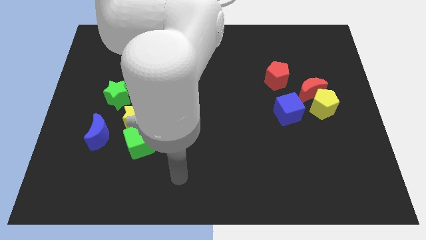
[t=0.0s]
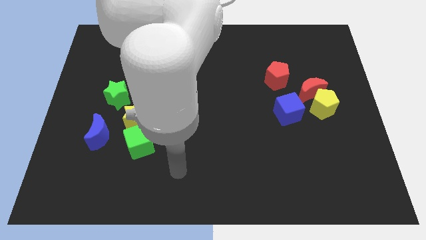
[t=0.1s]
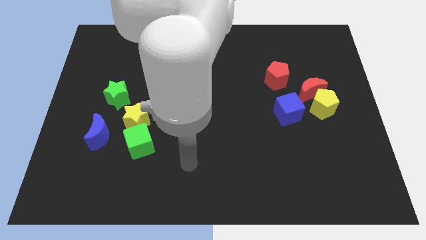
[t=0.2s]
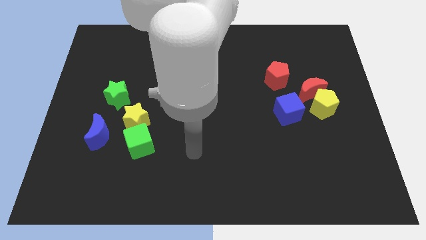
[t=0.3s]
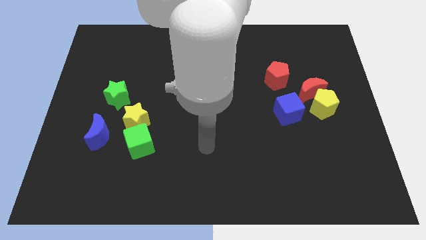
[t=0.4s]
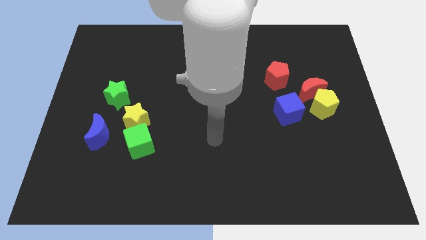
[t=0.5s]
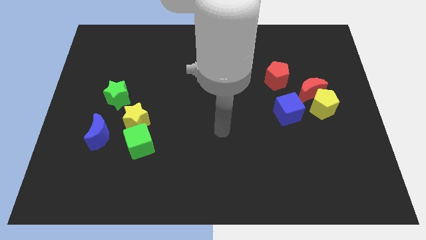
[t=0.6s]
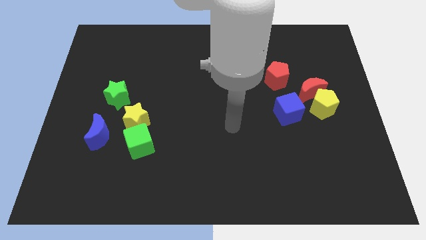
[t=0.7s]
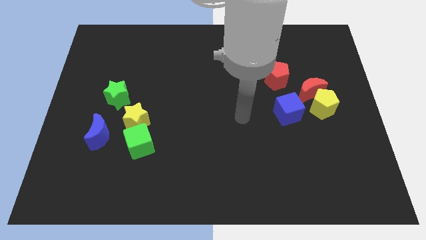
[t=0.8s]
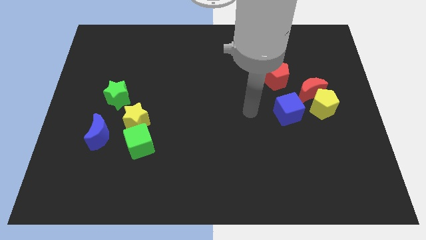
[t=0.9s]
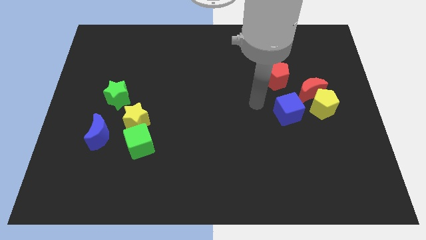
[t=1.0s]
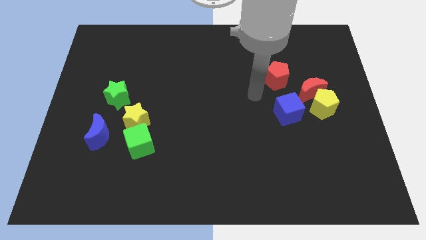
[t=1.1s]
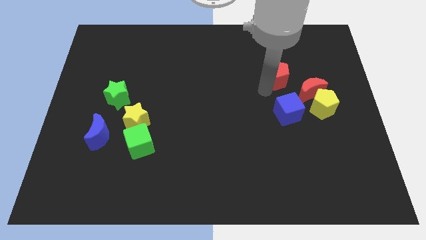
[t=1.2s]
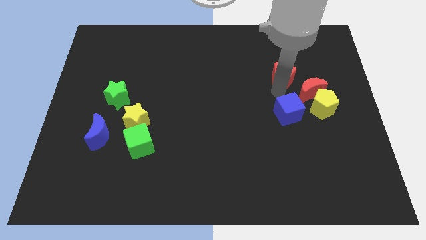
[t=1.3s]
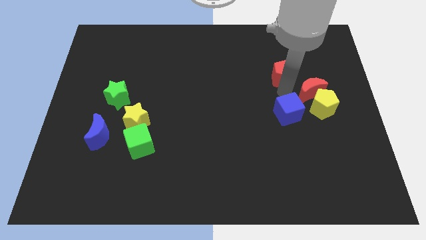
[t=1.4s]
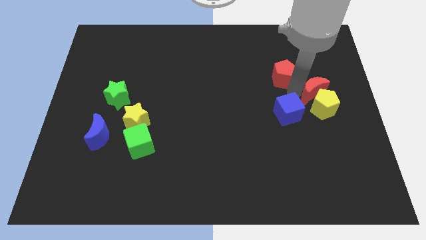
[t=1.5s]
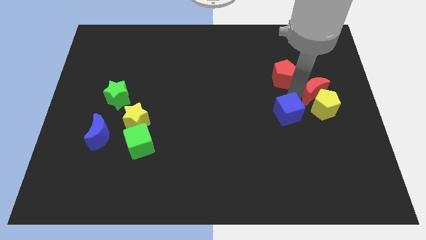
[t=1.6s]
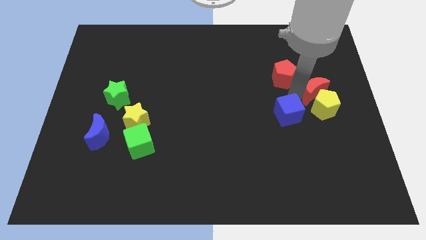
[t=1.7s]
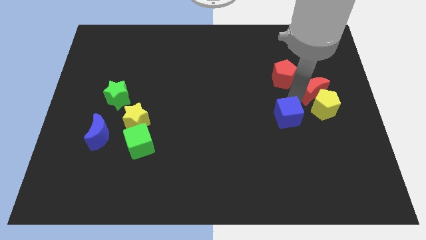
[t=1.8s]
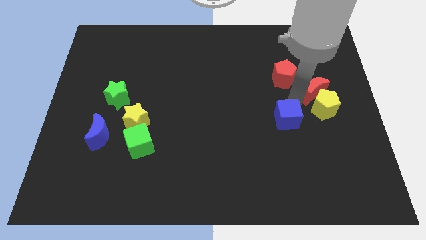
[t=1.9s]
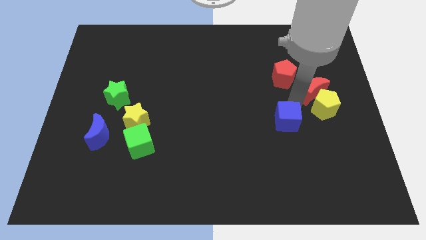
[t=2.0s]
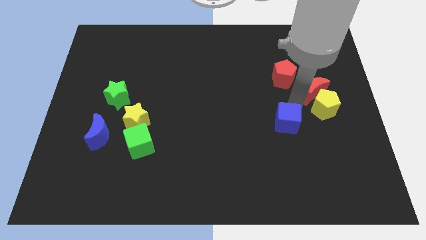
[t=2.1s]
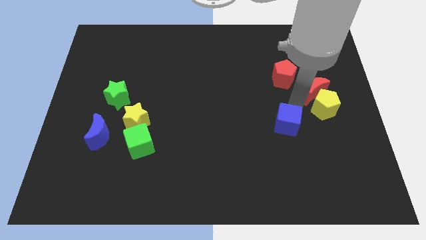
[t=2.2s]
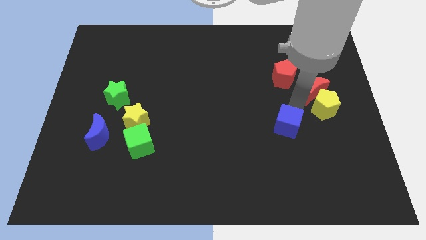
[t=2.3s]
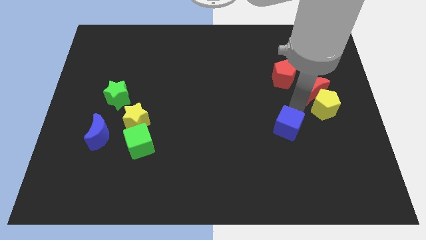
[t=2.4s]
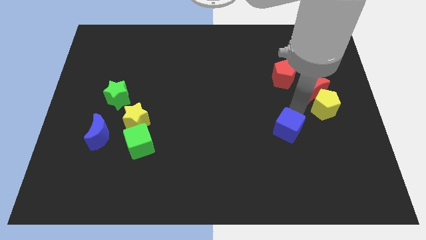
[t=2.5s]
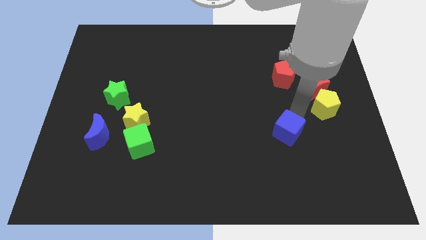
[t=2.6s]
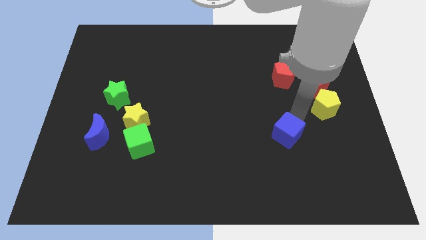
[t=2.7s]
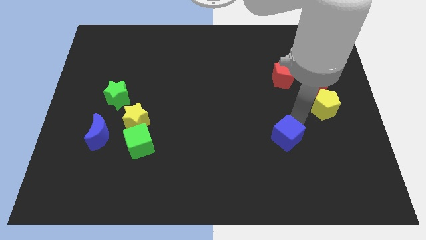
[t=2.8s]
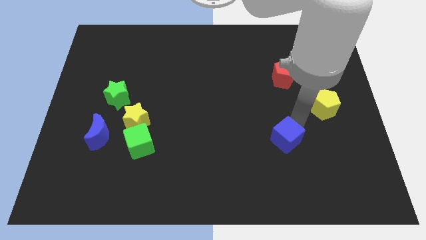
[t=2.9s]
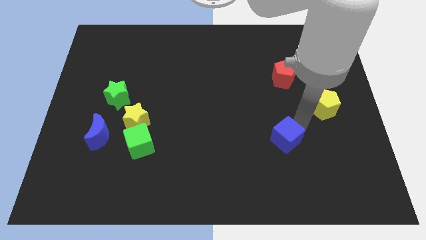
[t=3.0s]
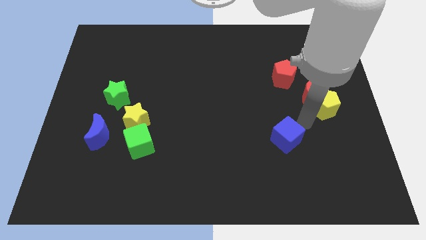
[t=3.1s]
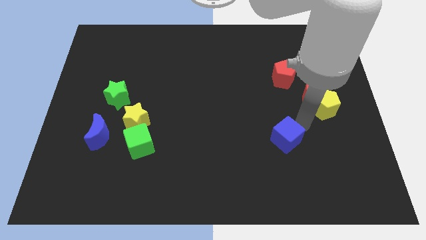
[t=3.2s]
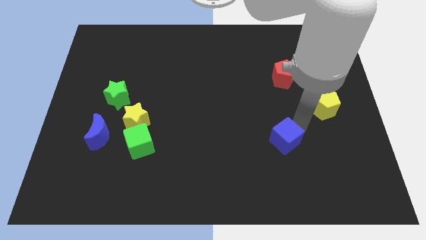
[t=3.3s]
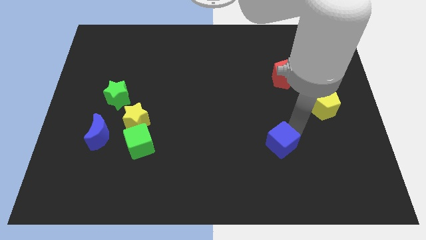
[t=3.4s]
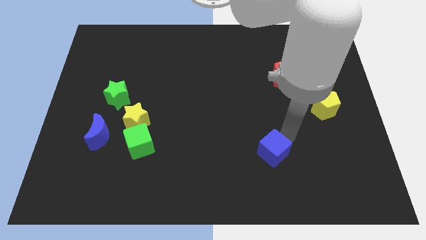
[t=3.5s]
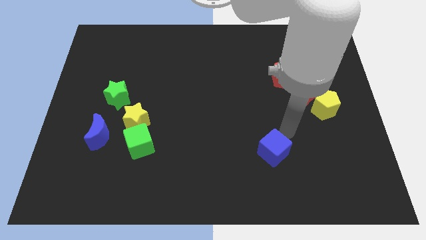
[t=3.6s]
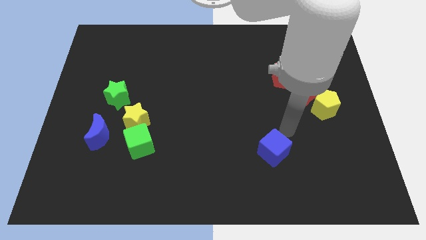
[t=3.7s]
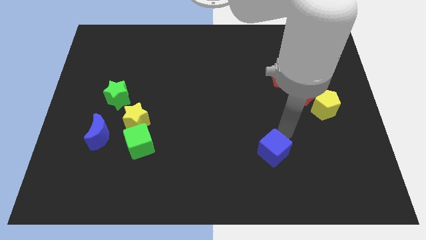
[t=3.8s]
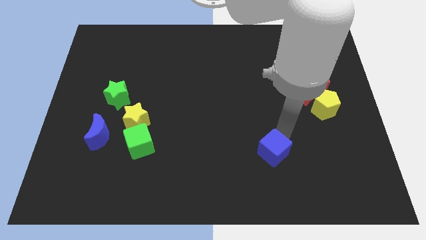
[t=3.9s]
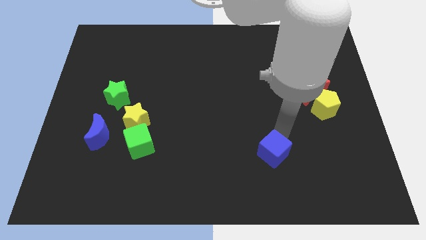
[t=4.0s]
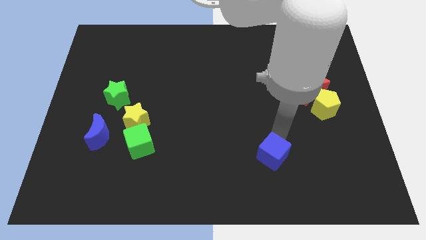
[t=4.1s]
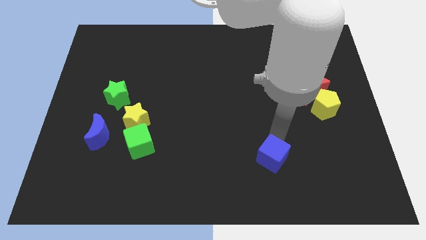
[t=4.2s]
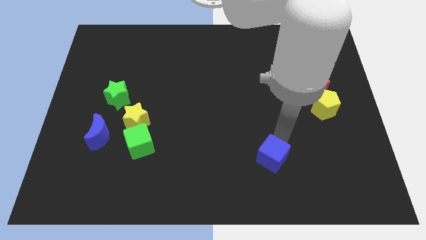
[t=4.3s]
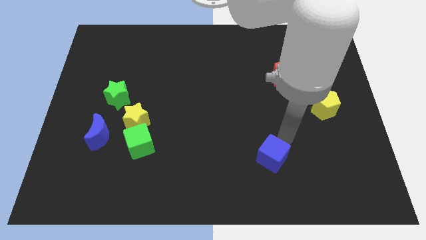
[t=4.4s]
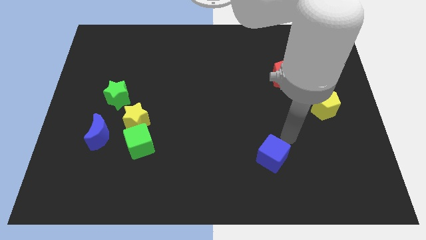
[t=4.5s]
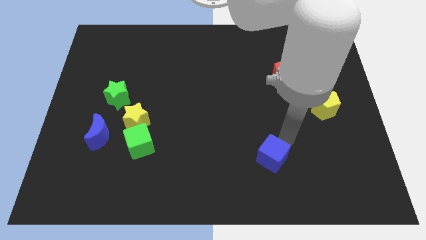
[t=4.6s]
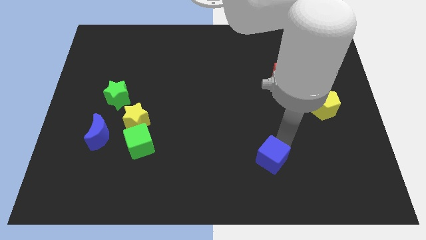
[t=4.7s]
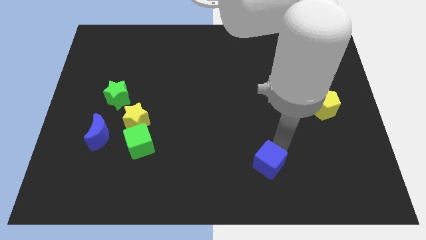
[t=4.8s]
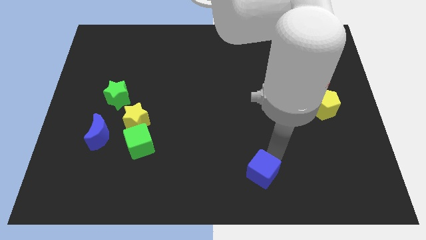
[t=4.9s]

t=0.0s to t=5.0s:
move the blue cube to the bottom side

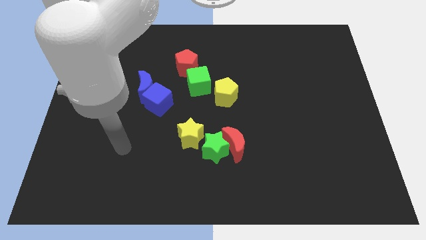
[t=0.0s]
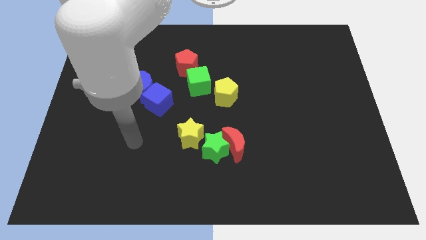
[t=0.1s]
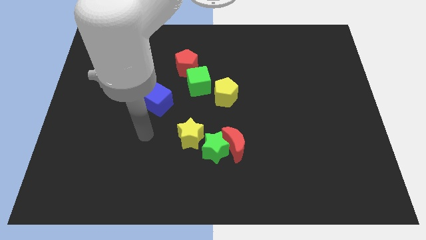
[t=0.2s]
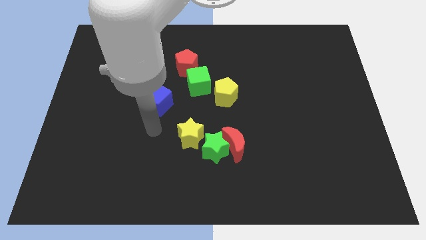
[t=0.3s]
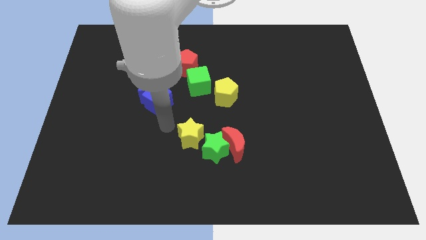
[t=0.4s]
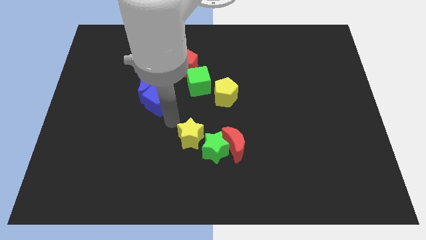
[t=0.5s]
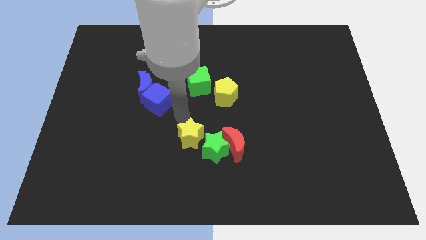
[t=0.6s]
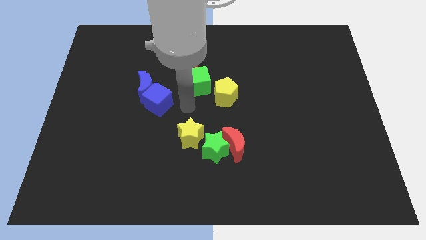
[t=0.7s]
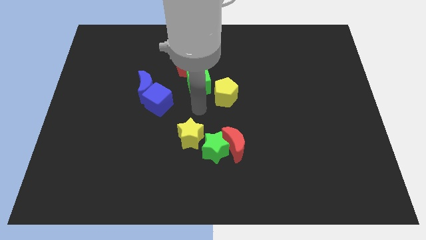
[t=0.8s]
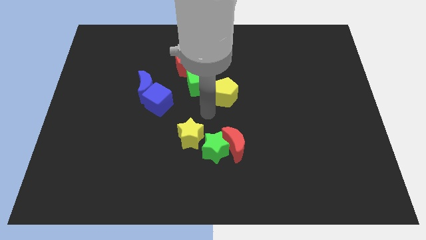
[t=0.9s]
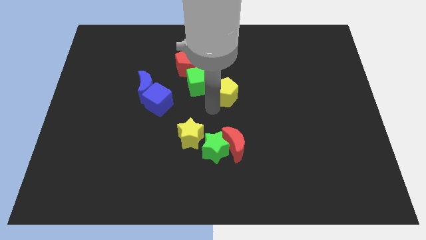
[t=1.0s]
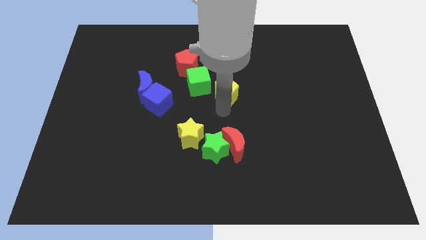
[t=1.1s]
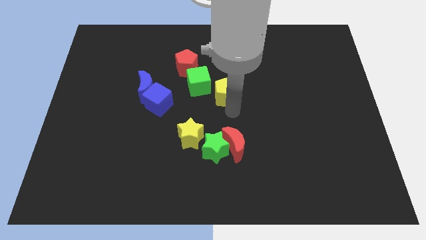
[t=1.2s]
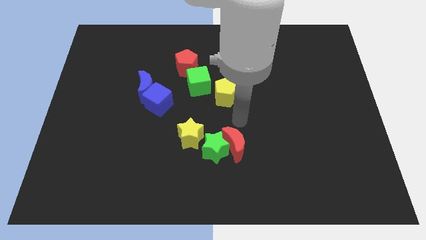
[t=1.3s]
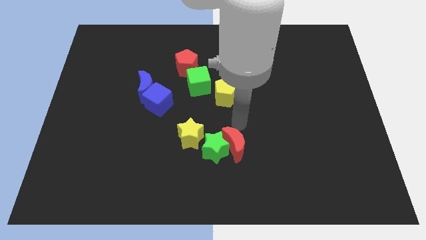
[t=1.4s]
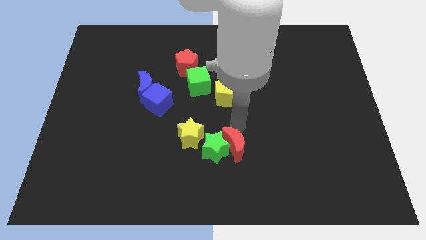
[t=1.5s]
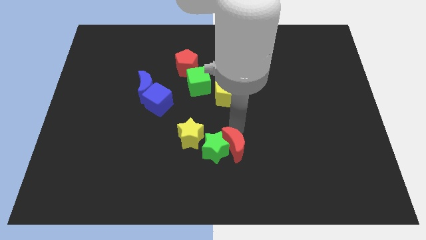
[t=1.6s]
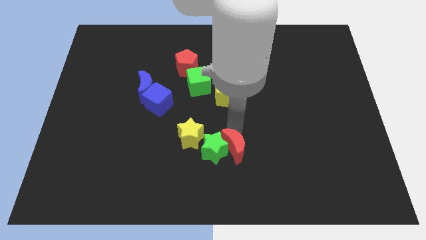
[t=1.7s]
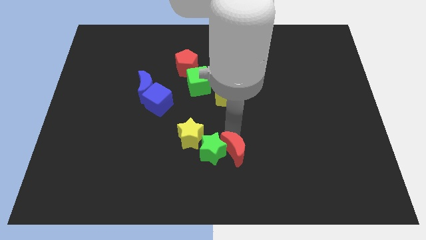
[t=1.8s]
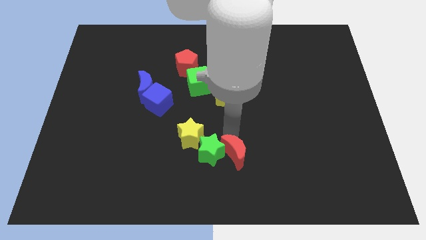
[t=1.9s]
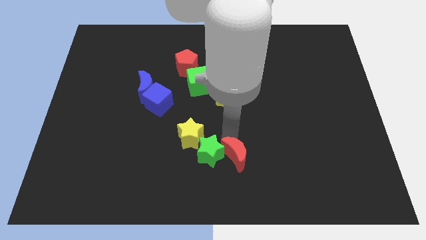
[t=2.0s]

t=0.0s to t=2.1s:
move the red moon to the bottom side
